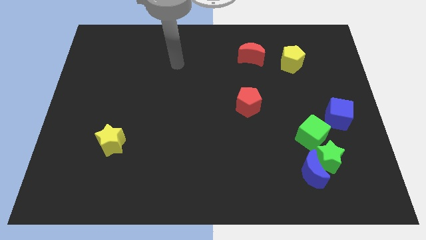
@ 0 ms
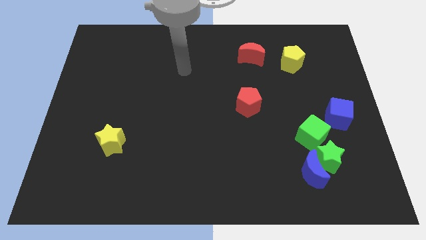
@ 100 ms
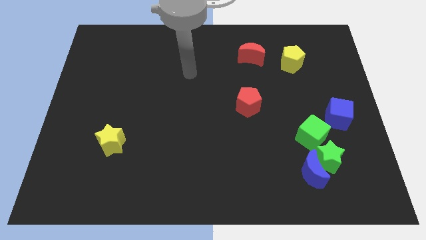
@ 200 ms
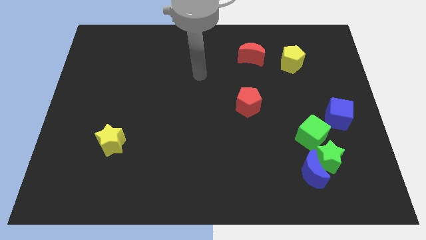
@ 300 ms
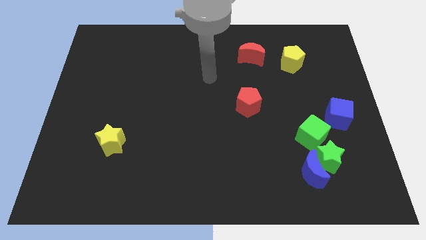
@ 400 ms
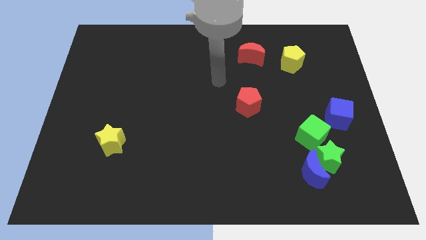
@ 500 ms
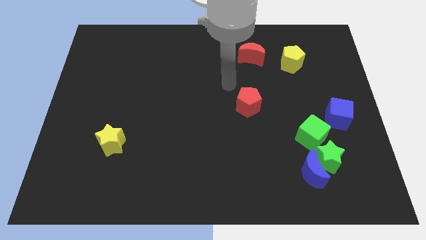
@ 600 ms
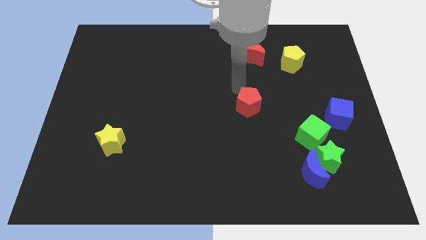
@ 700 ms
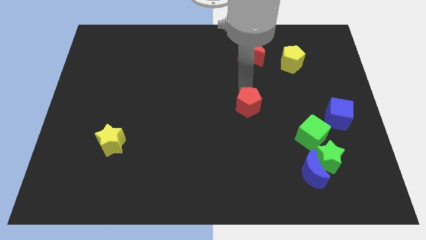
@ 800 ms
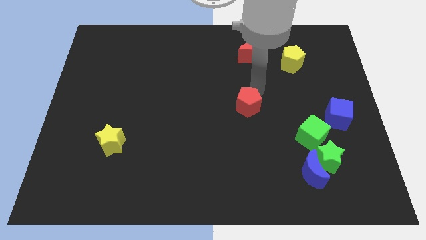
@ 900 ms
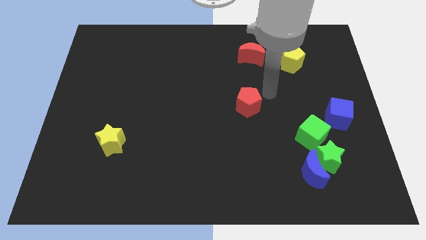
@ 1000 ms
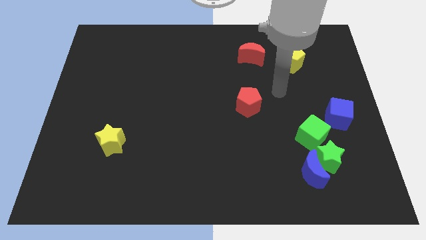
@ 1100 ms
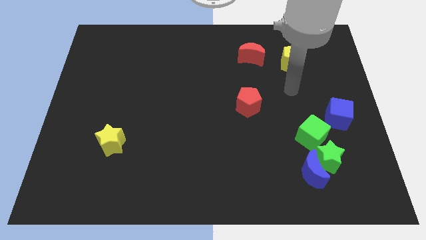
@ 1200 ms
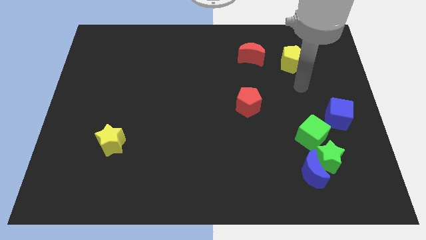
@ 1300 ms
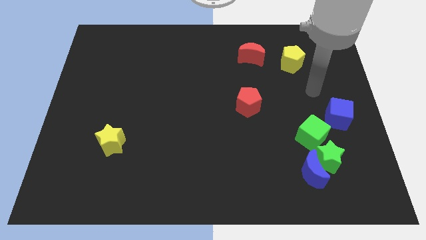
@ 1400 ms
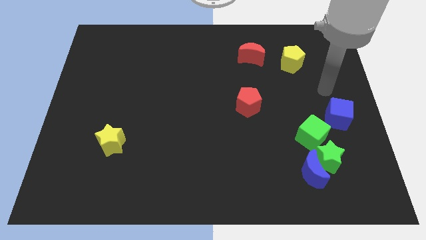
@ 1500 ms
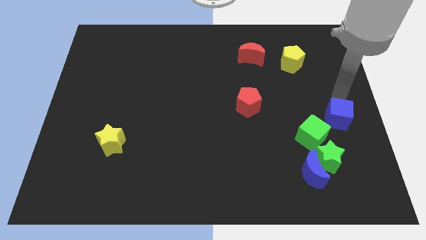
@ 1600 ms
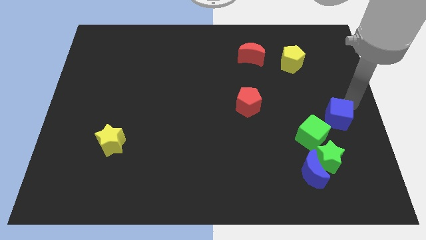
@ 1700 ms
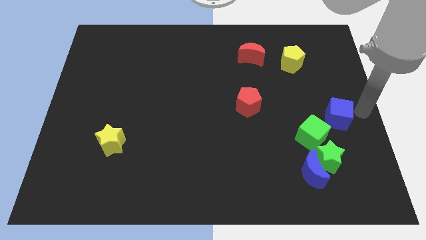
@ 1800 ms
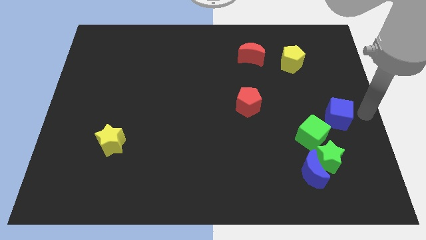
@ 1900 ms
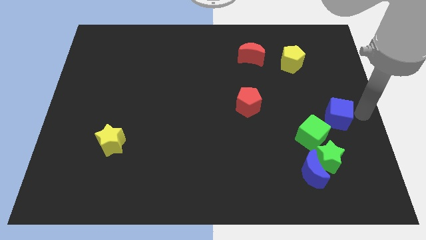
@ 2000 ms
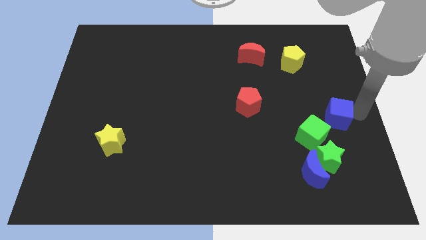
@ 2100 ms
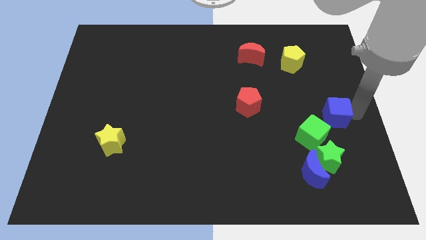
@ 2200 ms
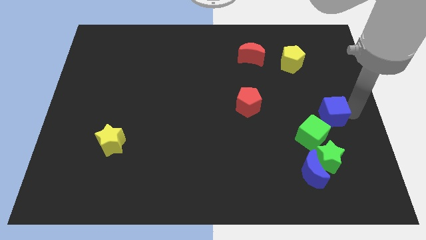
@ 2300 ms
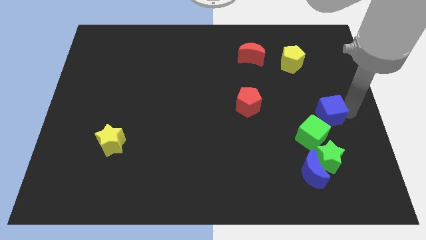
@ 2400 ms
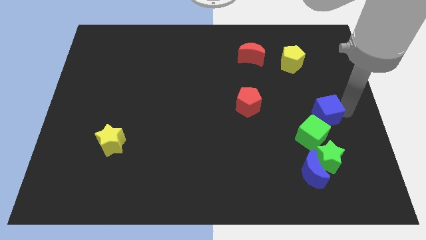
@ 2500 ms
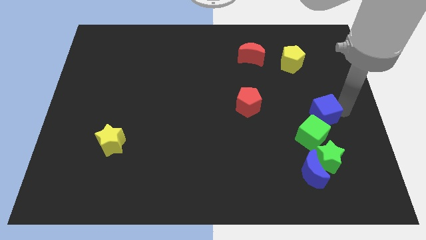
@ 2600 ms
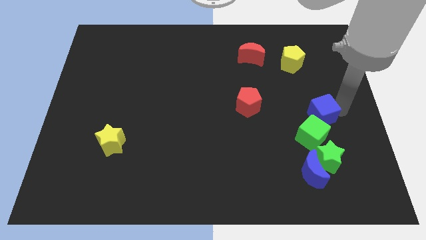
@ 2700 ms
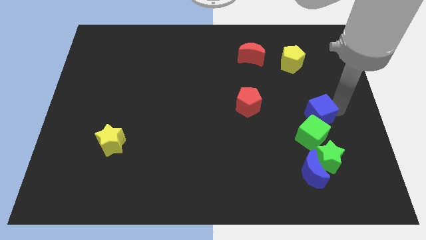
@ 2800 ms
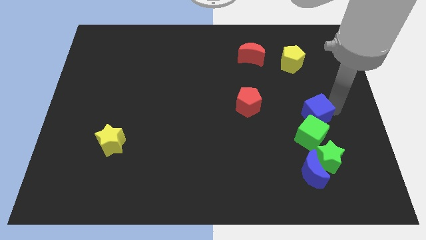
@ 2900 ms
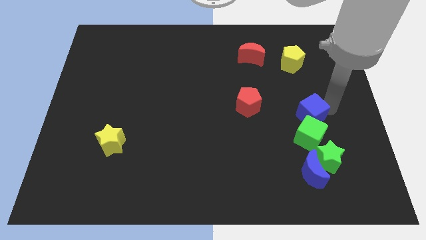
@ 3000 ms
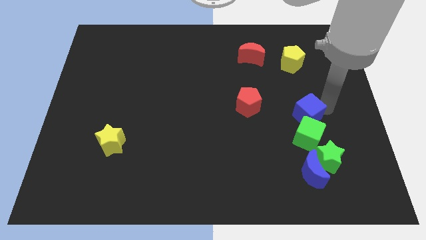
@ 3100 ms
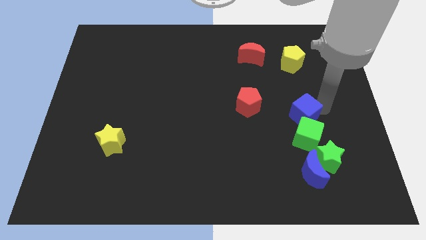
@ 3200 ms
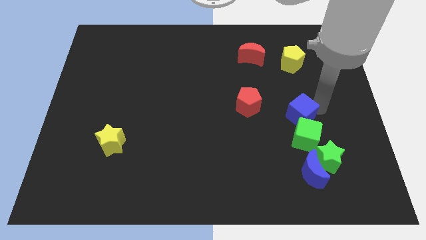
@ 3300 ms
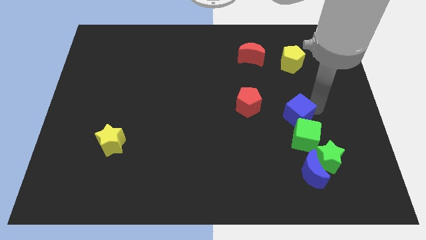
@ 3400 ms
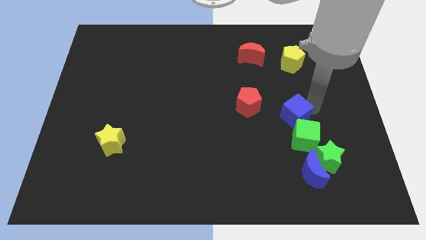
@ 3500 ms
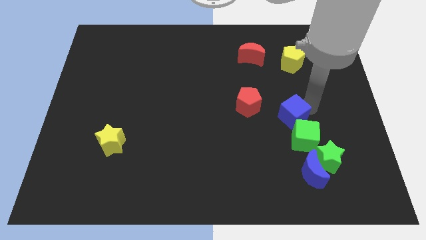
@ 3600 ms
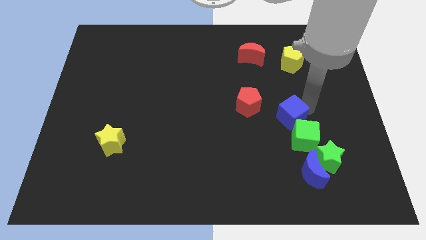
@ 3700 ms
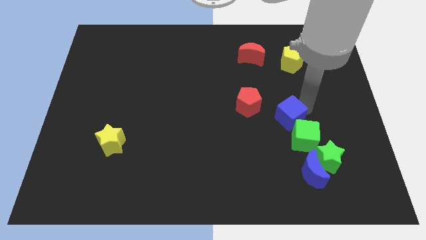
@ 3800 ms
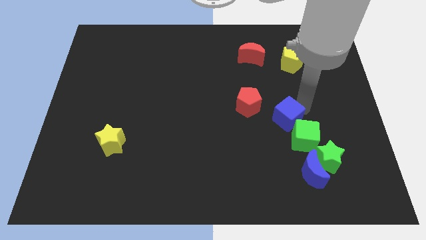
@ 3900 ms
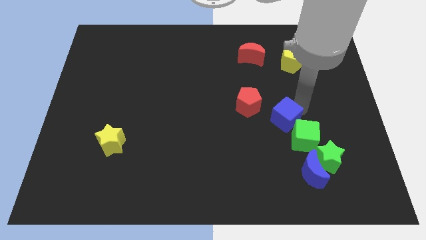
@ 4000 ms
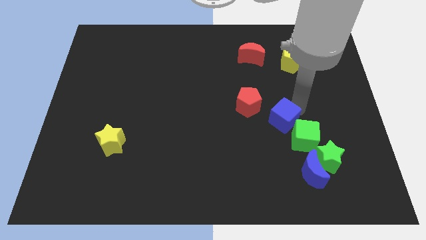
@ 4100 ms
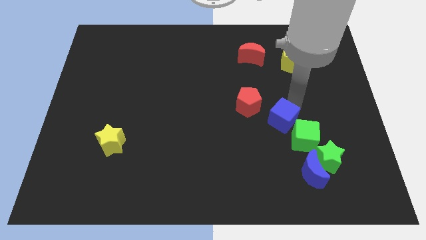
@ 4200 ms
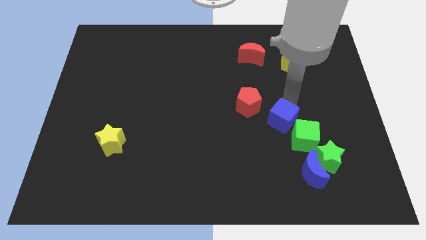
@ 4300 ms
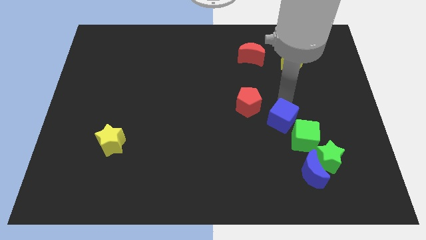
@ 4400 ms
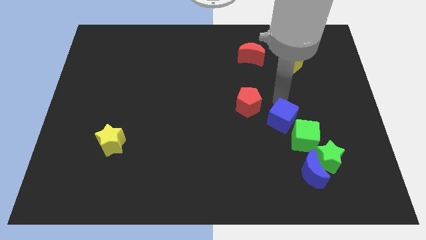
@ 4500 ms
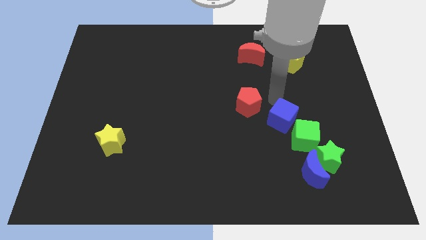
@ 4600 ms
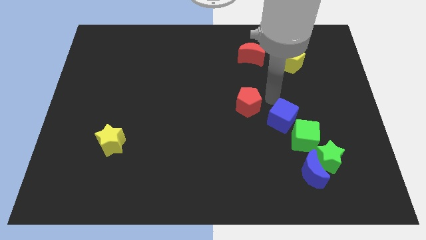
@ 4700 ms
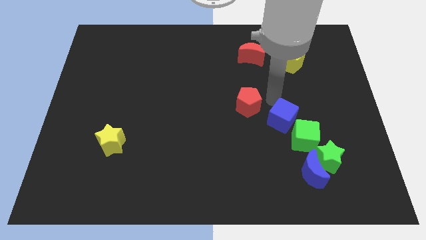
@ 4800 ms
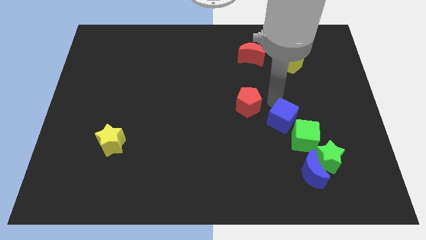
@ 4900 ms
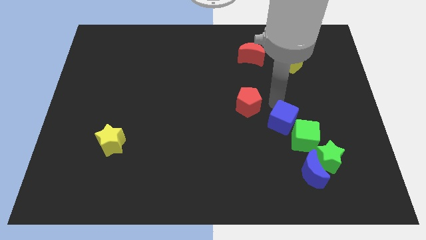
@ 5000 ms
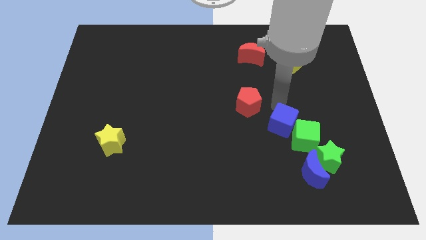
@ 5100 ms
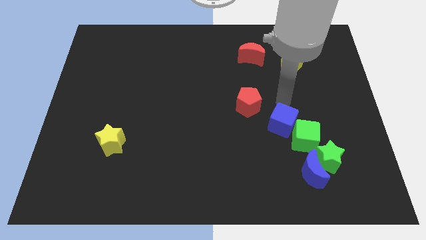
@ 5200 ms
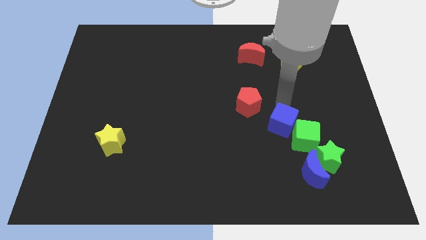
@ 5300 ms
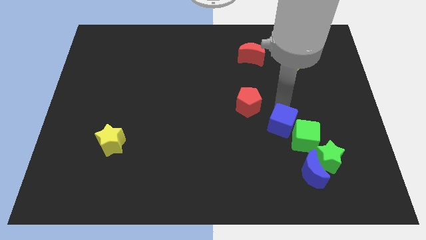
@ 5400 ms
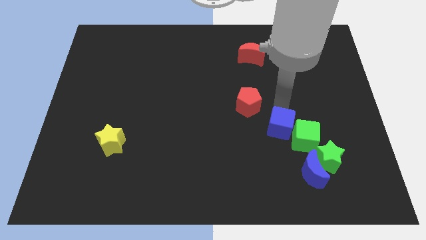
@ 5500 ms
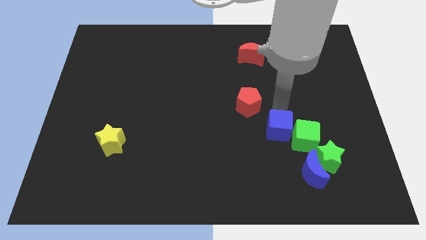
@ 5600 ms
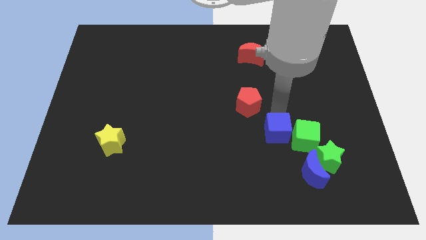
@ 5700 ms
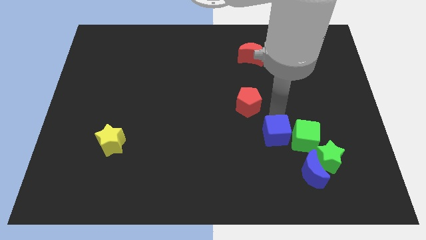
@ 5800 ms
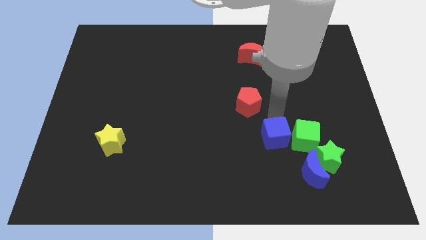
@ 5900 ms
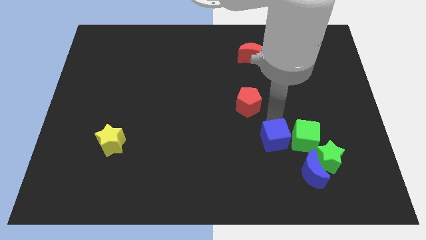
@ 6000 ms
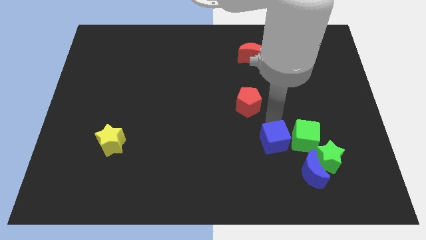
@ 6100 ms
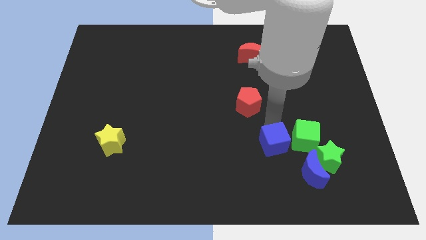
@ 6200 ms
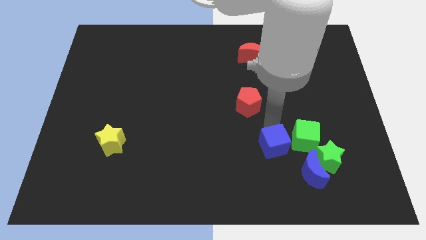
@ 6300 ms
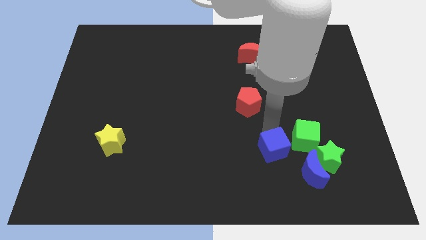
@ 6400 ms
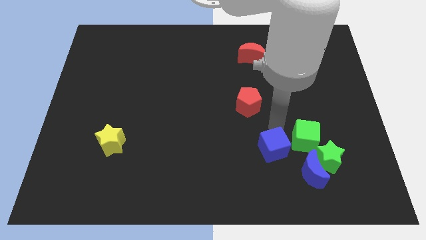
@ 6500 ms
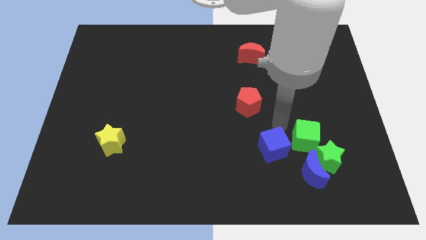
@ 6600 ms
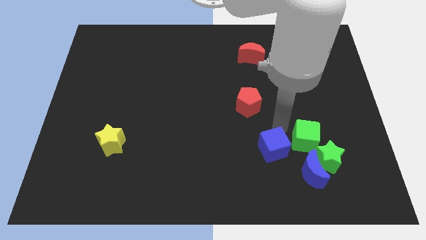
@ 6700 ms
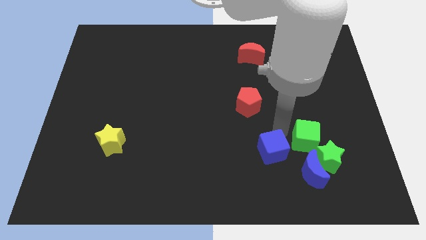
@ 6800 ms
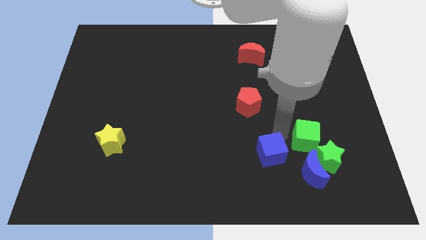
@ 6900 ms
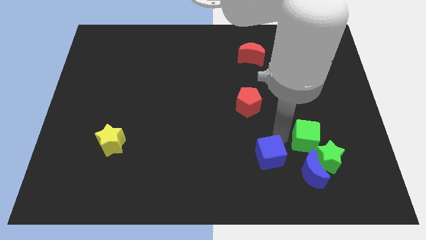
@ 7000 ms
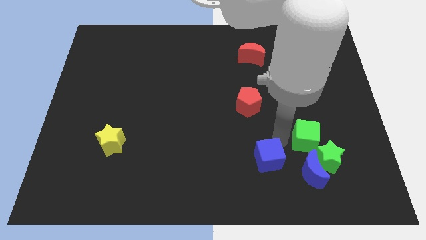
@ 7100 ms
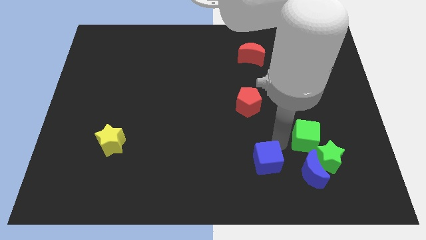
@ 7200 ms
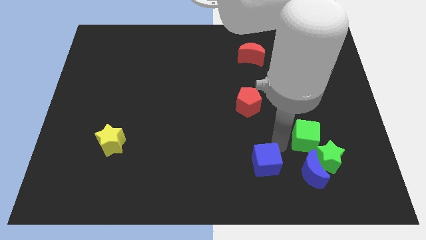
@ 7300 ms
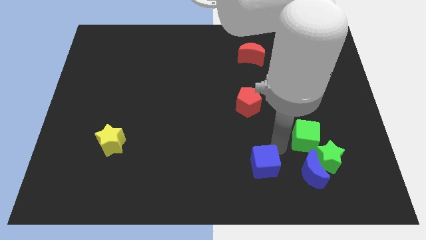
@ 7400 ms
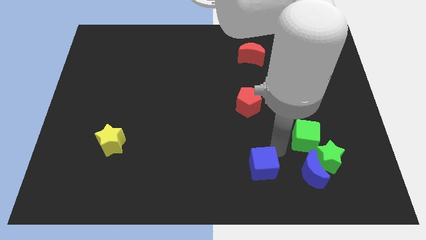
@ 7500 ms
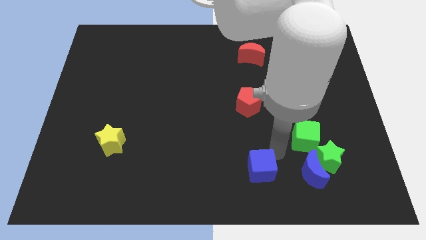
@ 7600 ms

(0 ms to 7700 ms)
move the blue cube to the bottom side
